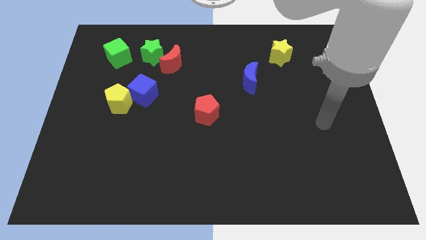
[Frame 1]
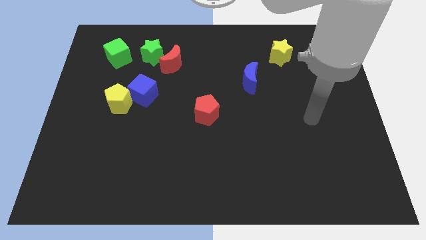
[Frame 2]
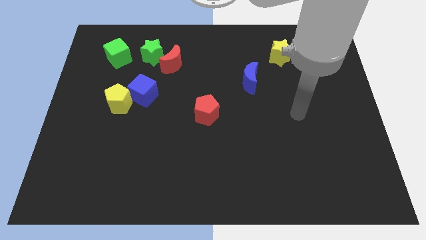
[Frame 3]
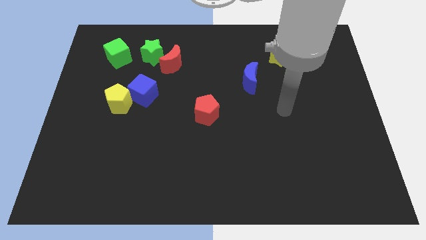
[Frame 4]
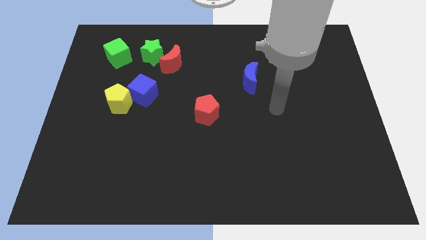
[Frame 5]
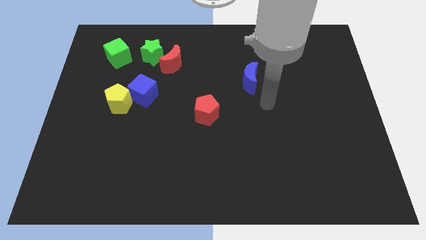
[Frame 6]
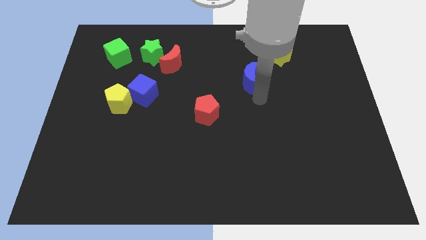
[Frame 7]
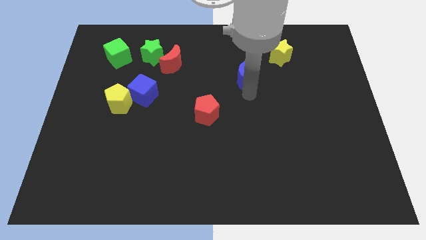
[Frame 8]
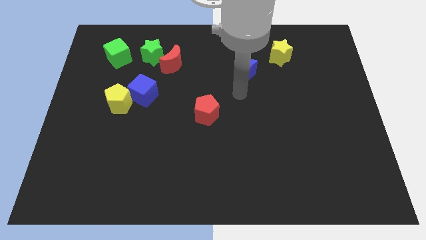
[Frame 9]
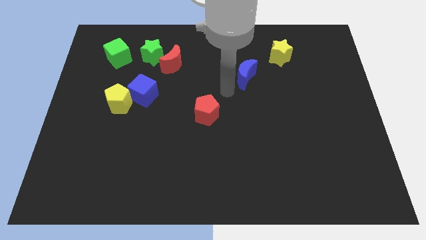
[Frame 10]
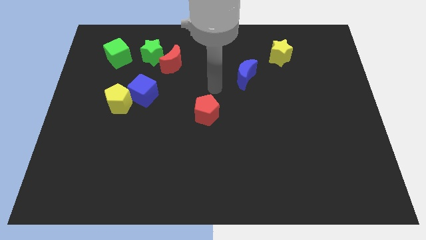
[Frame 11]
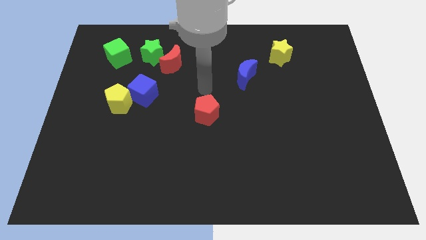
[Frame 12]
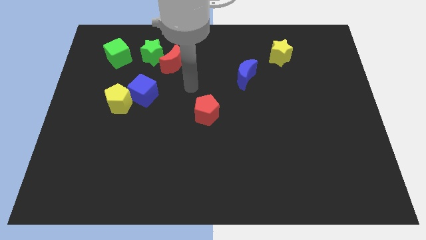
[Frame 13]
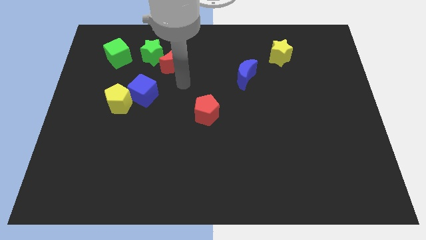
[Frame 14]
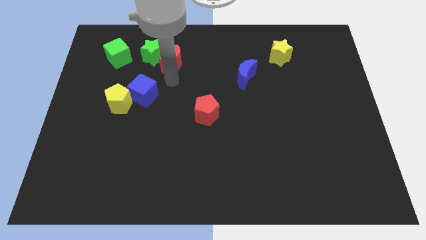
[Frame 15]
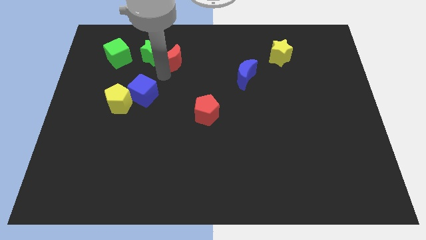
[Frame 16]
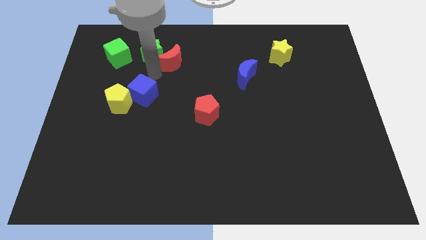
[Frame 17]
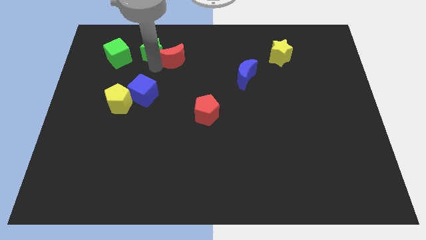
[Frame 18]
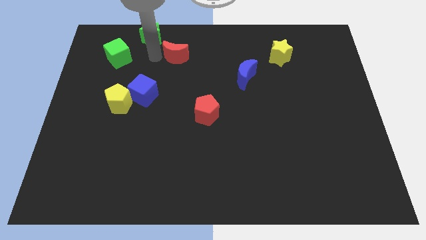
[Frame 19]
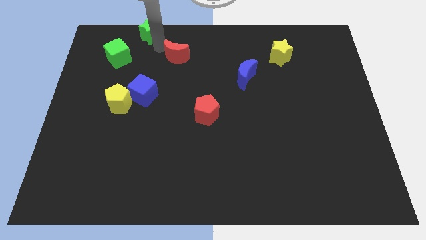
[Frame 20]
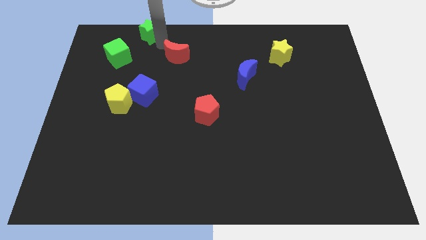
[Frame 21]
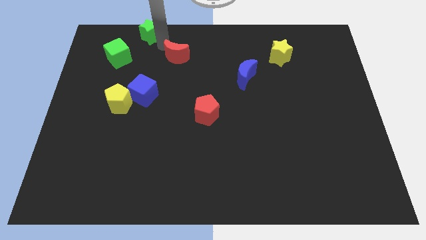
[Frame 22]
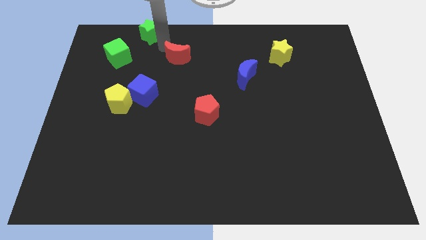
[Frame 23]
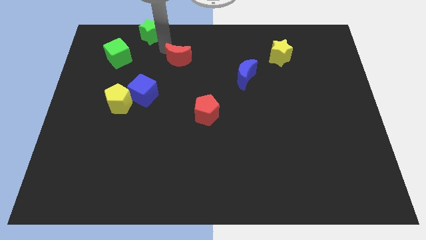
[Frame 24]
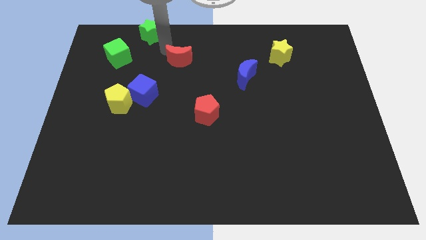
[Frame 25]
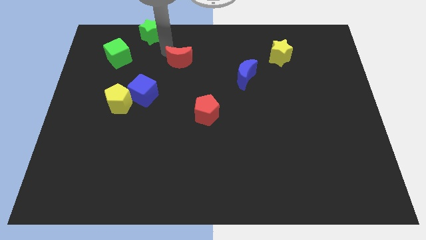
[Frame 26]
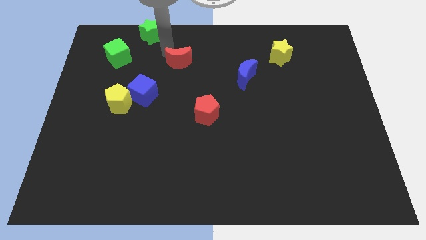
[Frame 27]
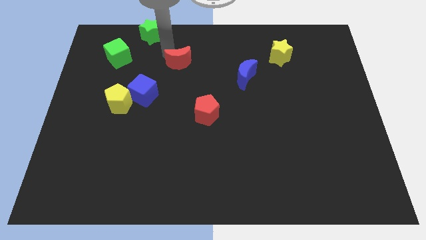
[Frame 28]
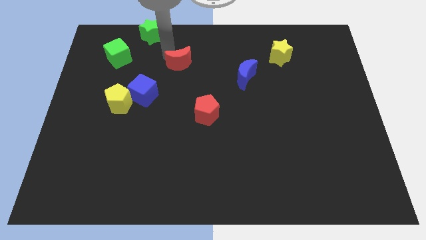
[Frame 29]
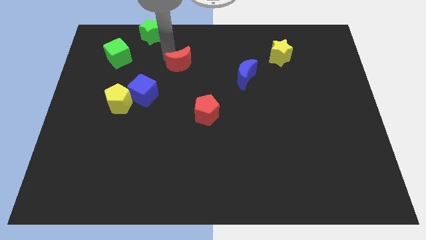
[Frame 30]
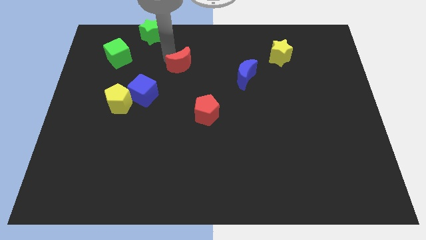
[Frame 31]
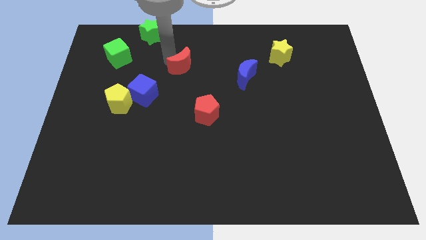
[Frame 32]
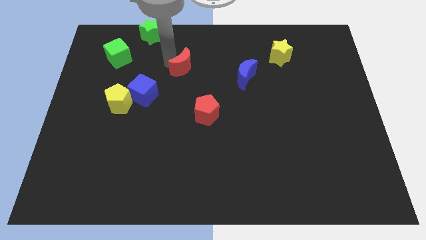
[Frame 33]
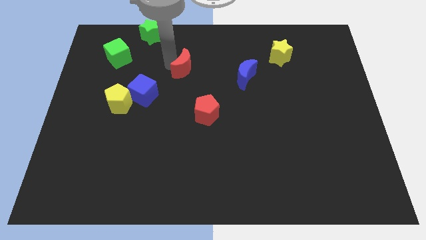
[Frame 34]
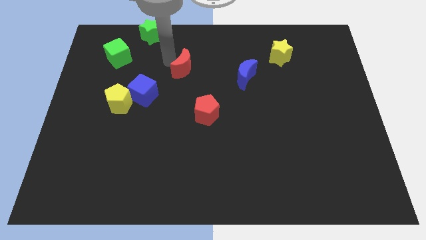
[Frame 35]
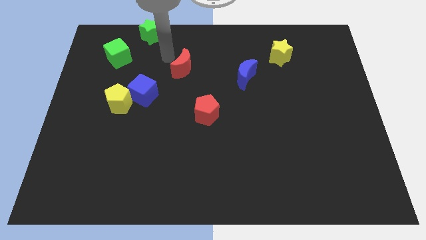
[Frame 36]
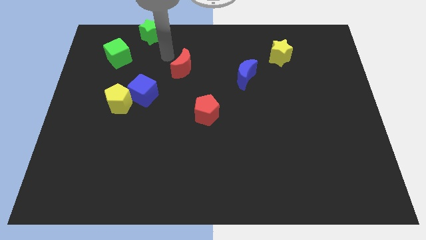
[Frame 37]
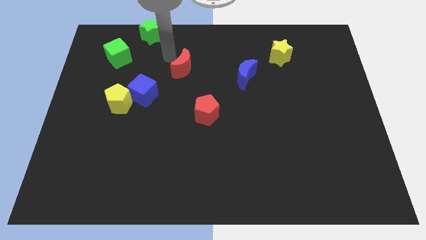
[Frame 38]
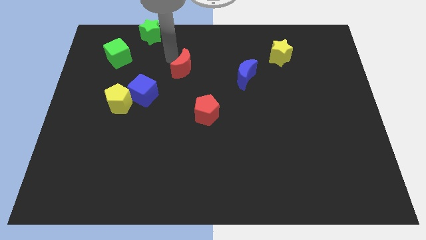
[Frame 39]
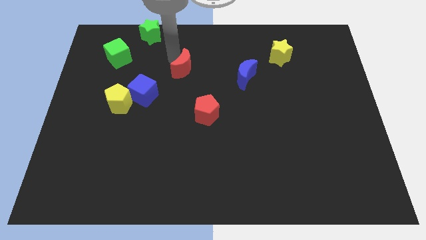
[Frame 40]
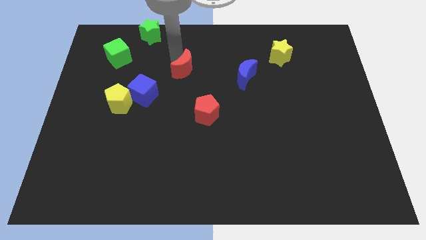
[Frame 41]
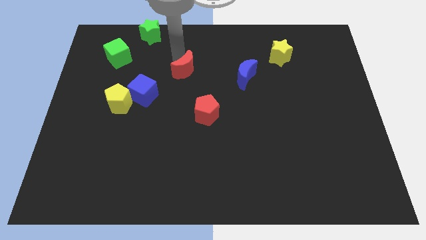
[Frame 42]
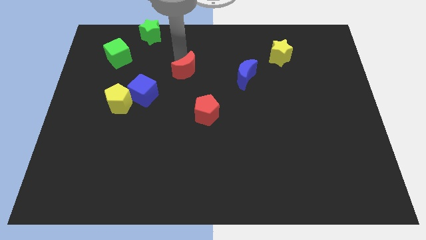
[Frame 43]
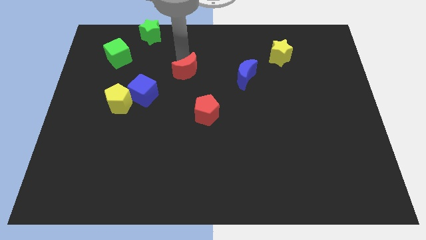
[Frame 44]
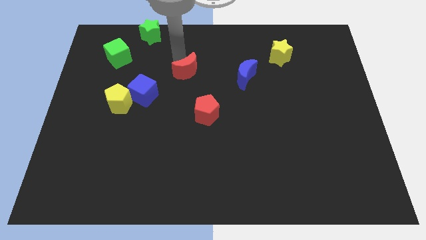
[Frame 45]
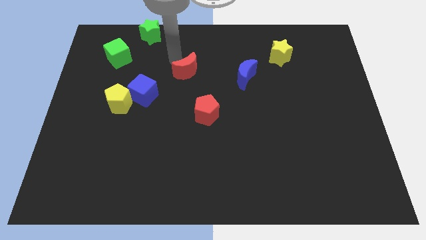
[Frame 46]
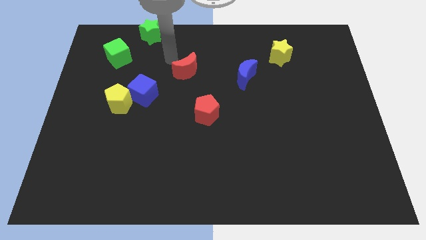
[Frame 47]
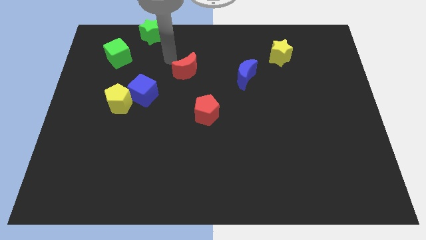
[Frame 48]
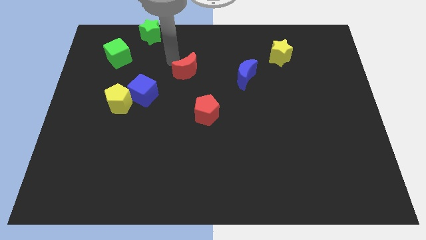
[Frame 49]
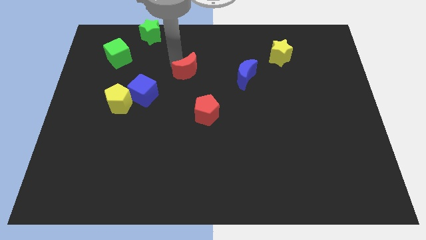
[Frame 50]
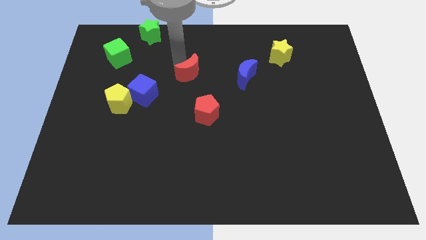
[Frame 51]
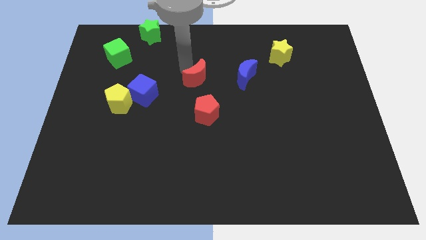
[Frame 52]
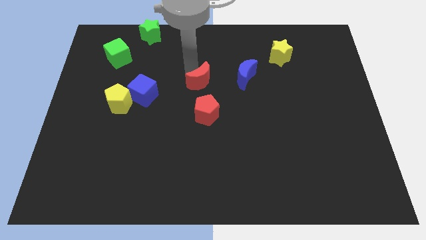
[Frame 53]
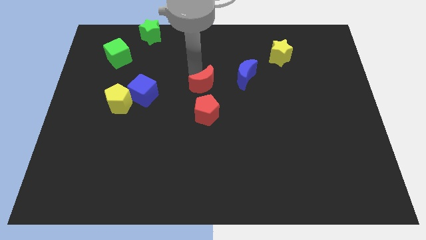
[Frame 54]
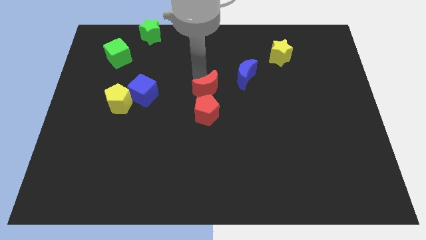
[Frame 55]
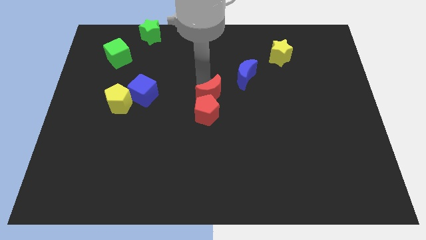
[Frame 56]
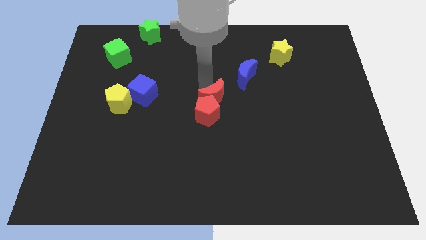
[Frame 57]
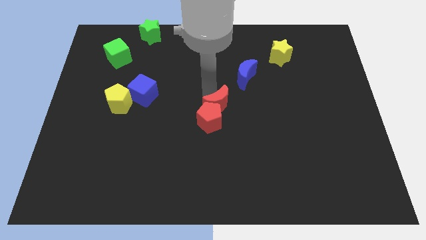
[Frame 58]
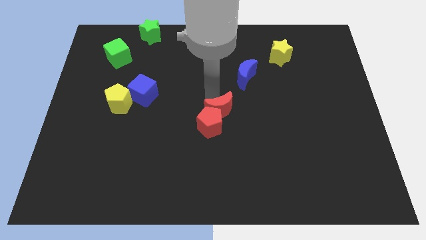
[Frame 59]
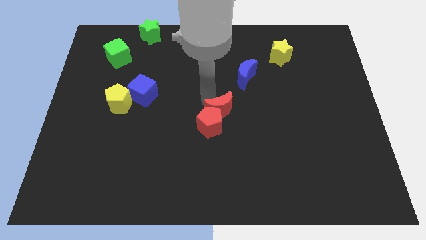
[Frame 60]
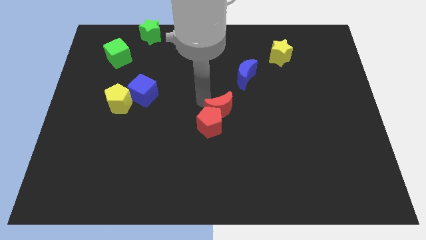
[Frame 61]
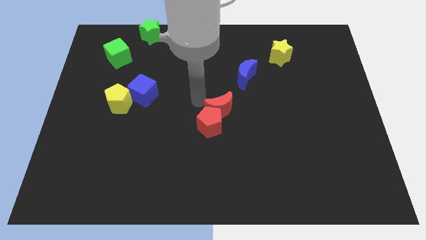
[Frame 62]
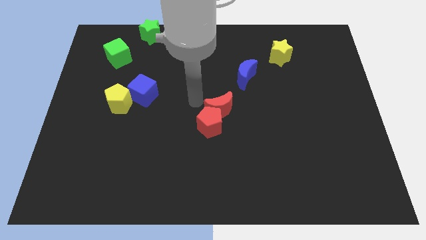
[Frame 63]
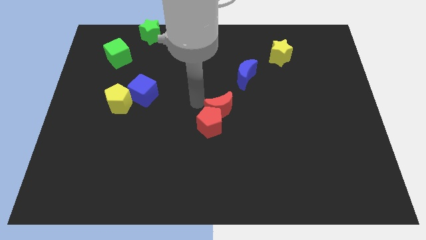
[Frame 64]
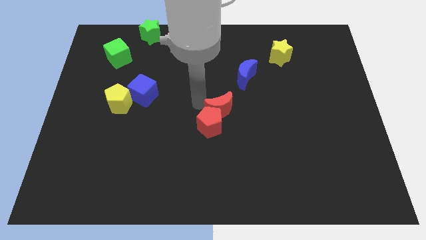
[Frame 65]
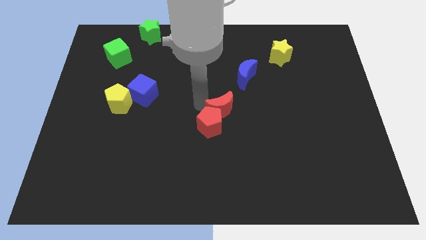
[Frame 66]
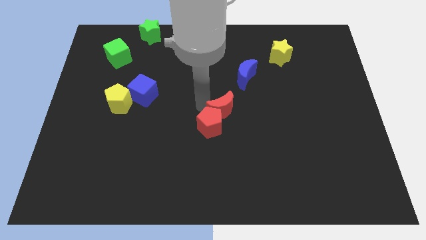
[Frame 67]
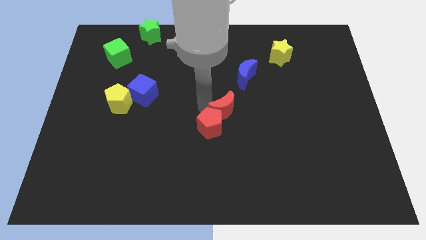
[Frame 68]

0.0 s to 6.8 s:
push the red moon diagonally down and to the right

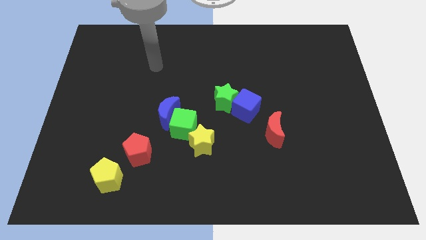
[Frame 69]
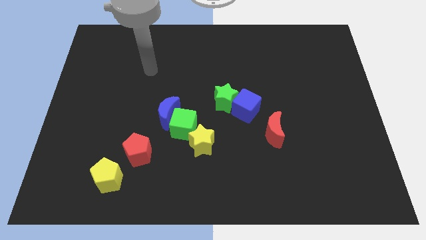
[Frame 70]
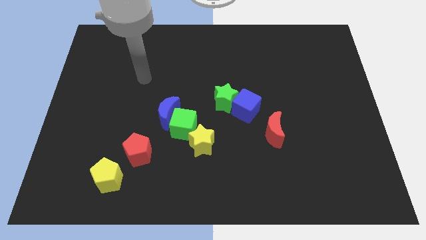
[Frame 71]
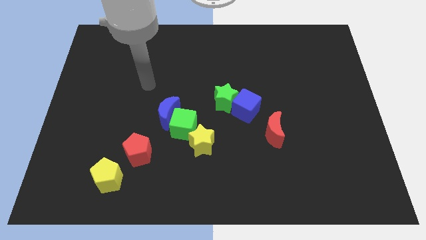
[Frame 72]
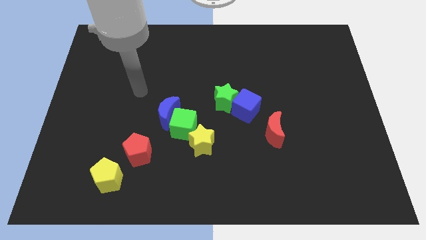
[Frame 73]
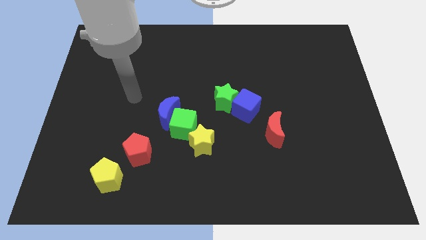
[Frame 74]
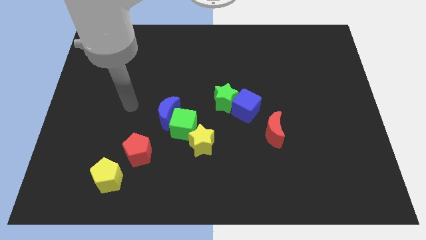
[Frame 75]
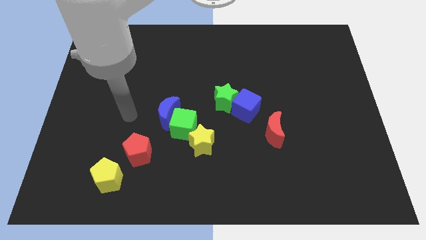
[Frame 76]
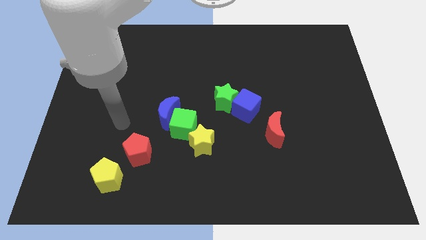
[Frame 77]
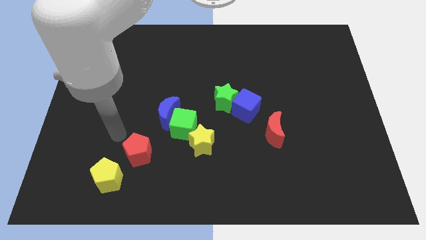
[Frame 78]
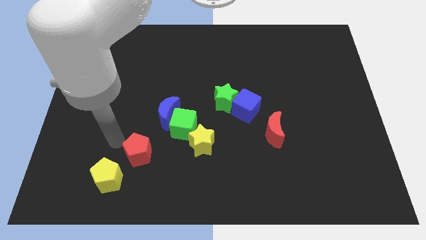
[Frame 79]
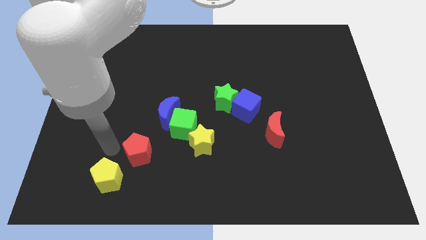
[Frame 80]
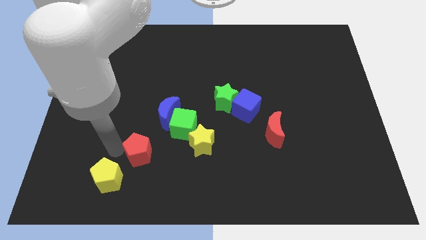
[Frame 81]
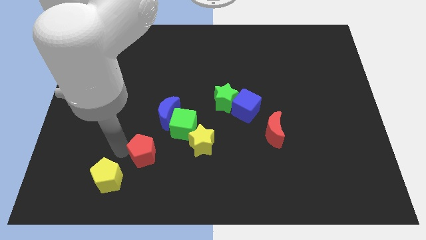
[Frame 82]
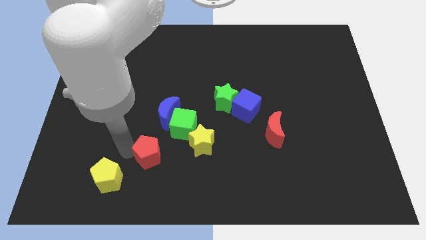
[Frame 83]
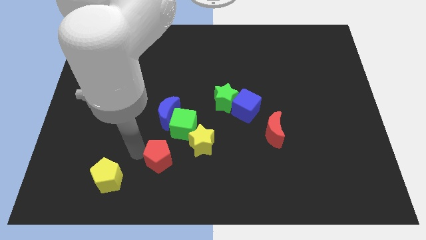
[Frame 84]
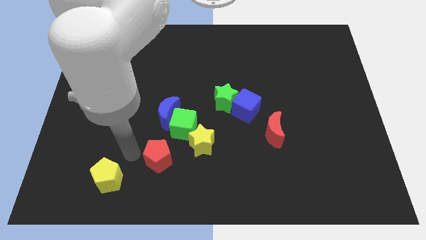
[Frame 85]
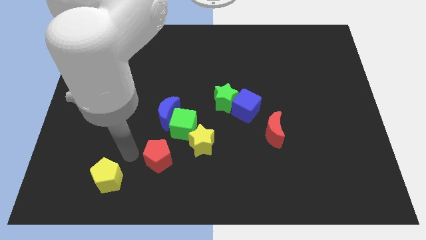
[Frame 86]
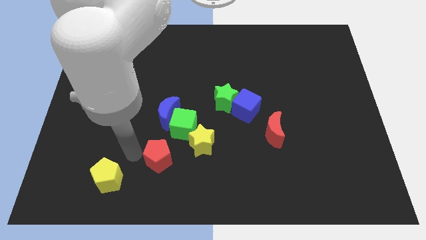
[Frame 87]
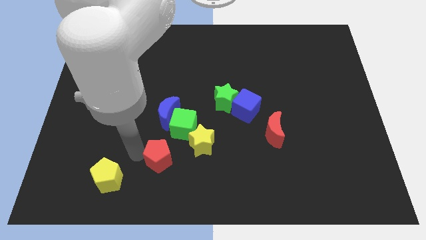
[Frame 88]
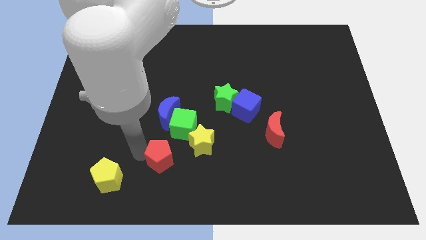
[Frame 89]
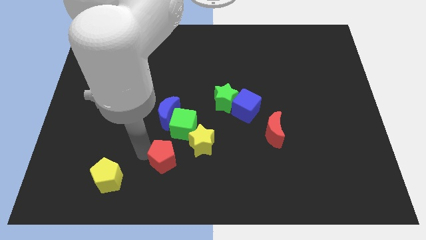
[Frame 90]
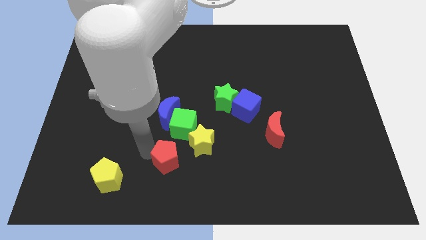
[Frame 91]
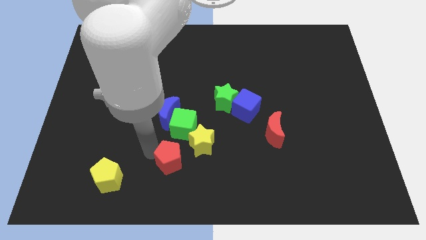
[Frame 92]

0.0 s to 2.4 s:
slightly move the red pentagon right
